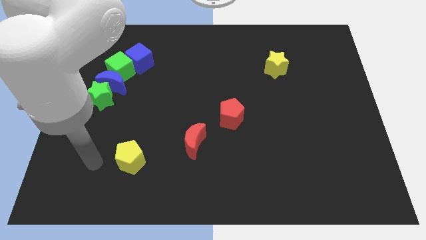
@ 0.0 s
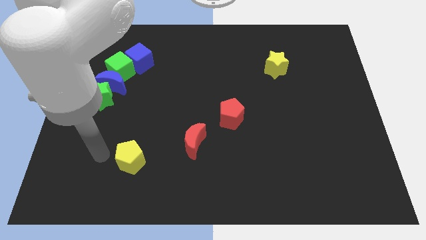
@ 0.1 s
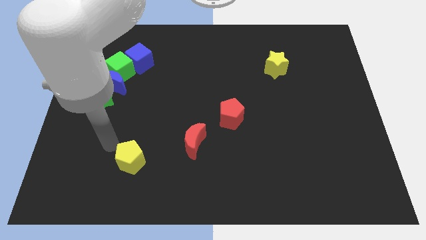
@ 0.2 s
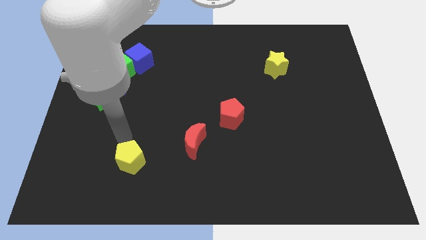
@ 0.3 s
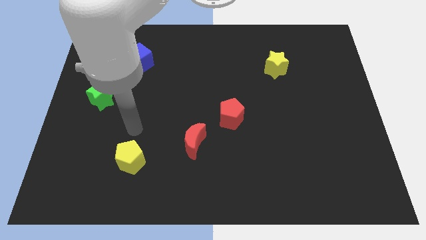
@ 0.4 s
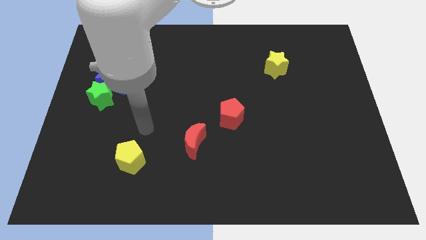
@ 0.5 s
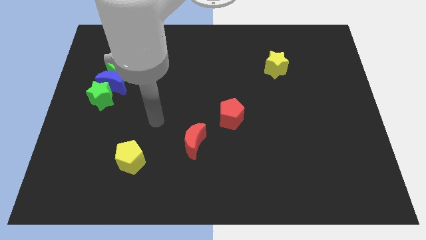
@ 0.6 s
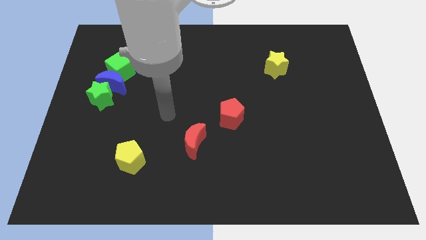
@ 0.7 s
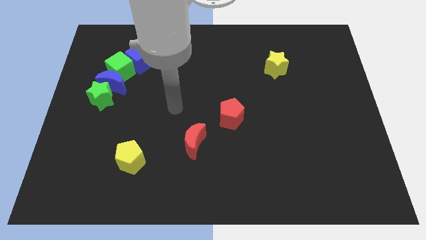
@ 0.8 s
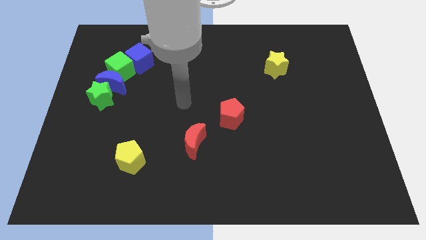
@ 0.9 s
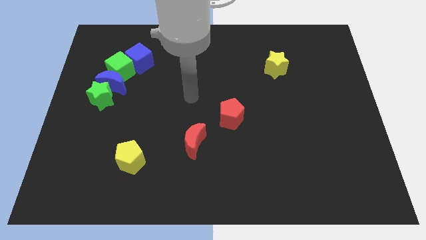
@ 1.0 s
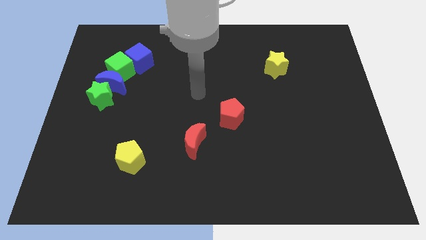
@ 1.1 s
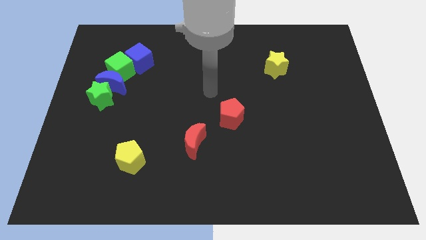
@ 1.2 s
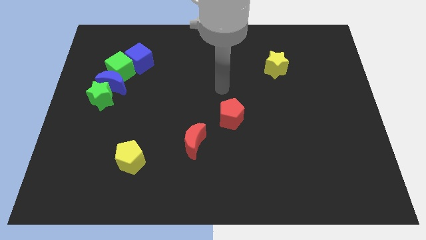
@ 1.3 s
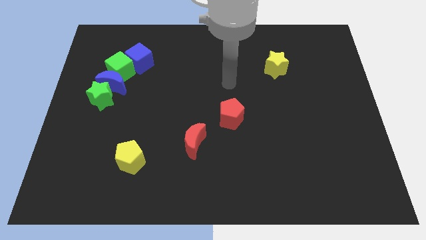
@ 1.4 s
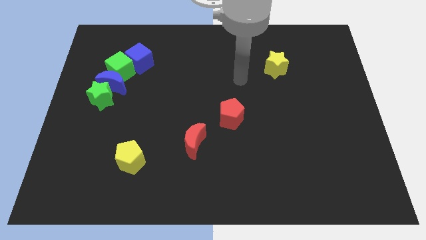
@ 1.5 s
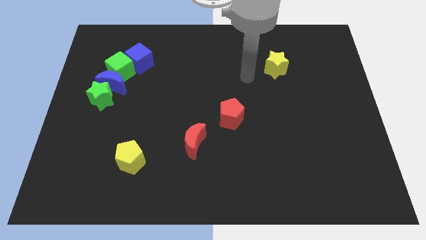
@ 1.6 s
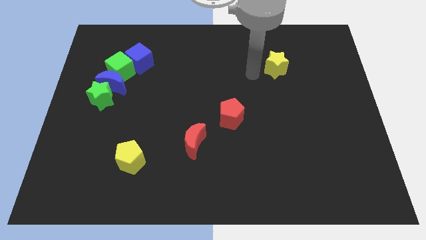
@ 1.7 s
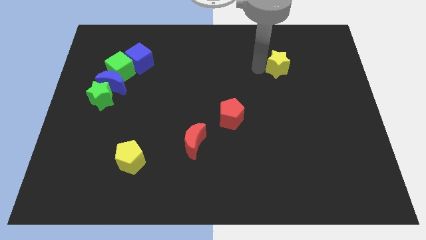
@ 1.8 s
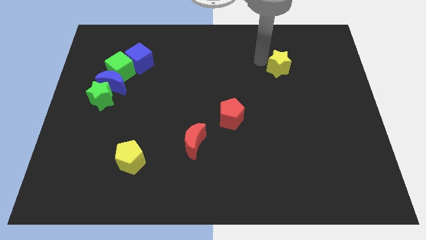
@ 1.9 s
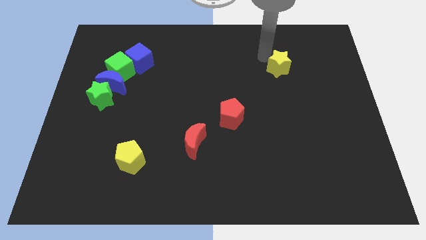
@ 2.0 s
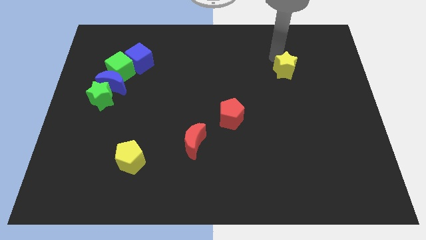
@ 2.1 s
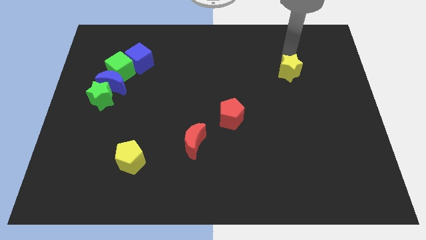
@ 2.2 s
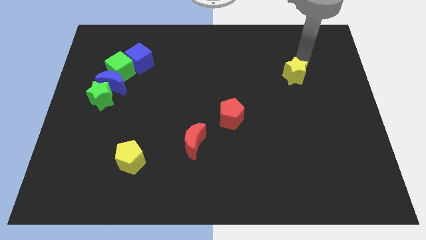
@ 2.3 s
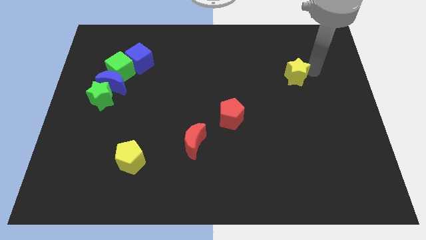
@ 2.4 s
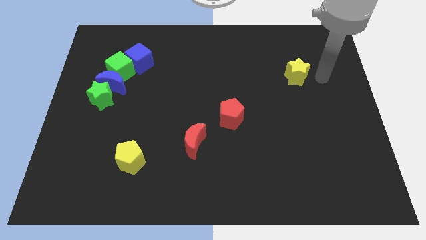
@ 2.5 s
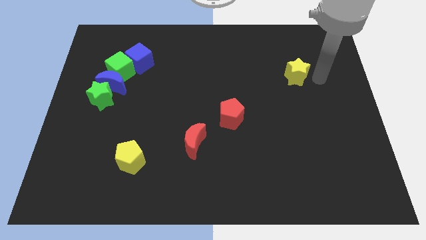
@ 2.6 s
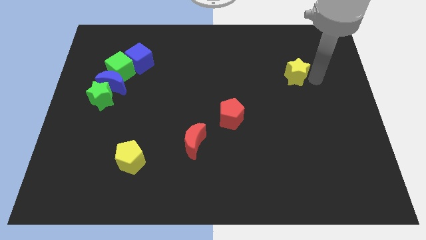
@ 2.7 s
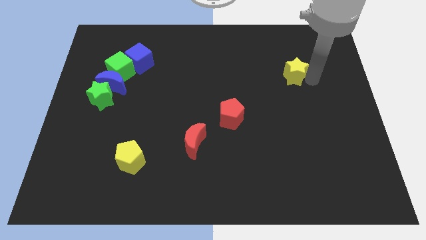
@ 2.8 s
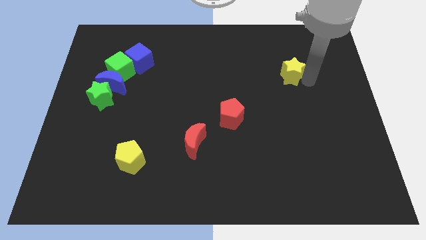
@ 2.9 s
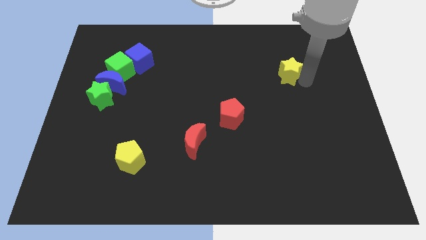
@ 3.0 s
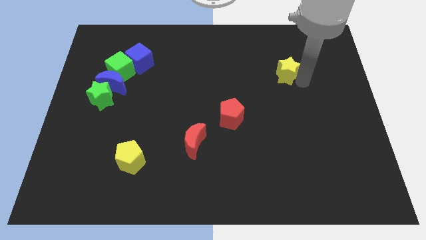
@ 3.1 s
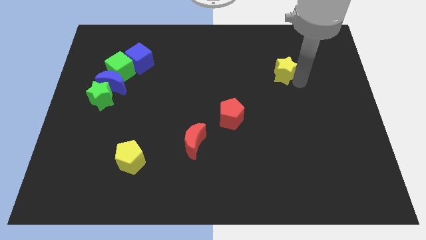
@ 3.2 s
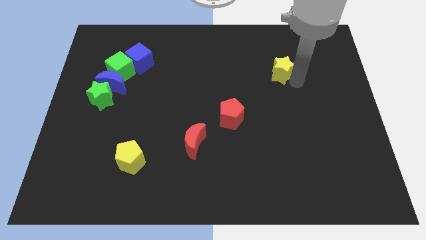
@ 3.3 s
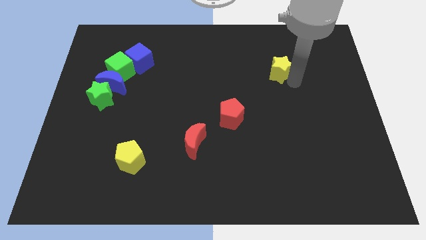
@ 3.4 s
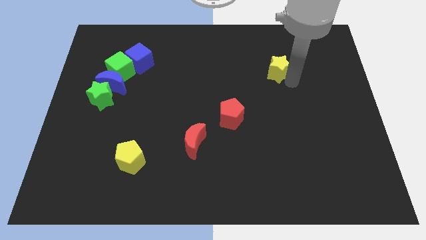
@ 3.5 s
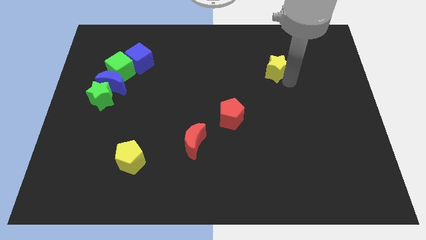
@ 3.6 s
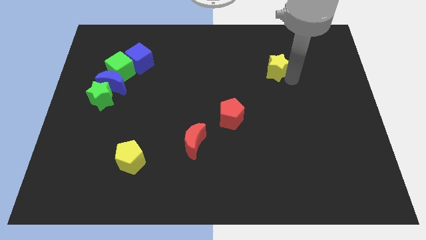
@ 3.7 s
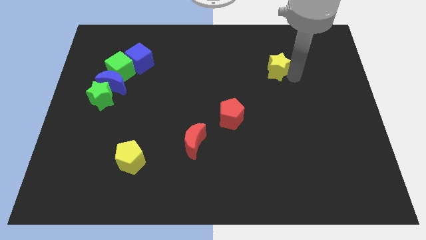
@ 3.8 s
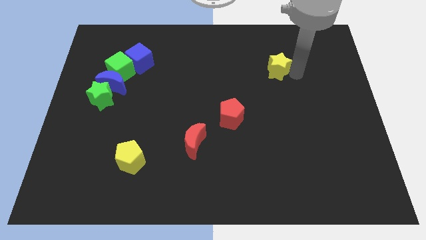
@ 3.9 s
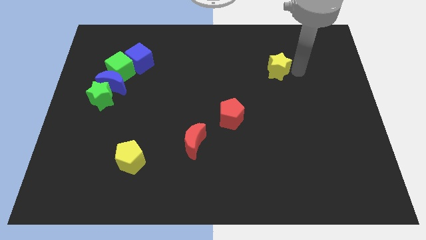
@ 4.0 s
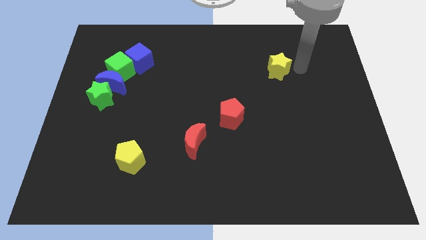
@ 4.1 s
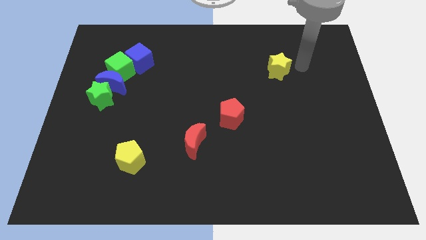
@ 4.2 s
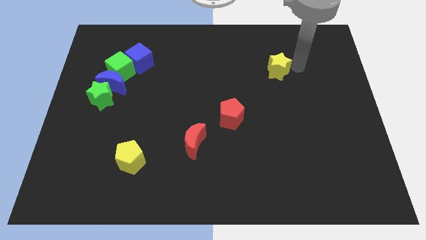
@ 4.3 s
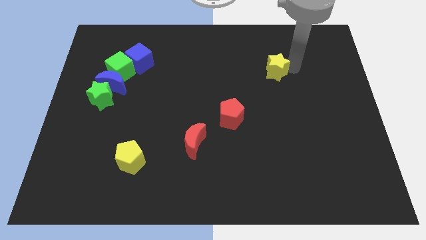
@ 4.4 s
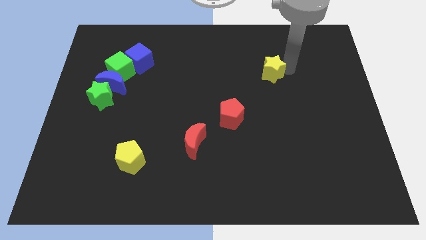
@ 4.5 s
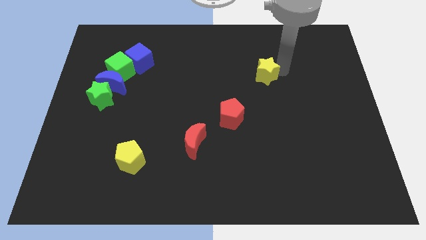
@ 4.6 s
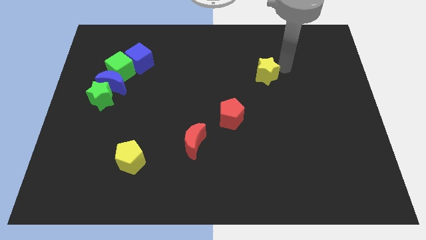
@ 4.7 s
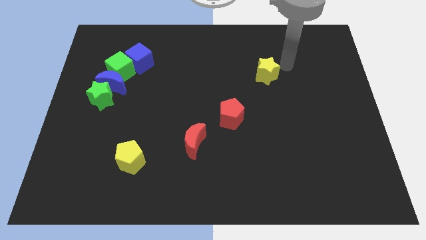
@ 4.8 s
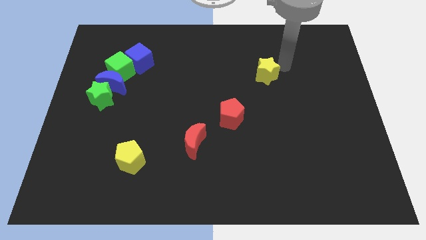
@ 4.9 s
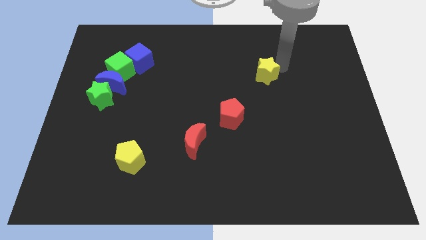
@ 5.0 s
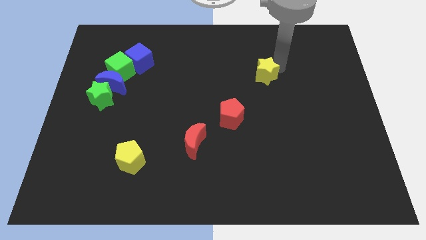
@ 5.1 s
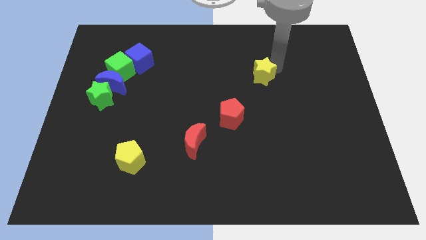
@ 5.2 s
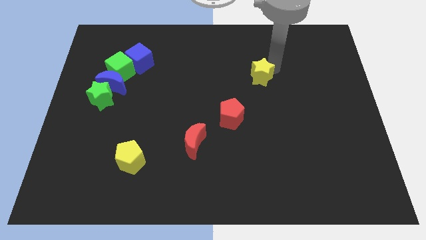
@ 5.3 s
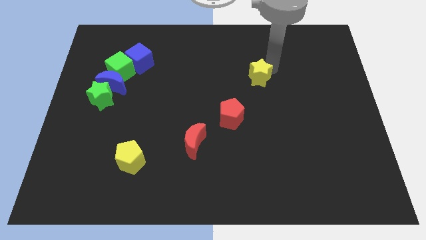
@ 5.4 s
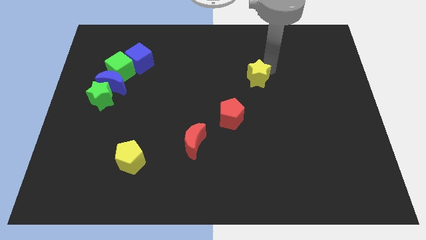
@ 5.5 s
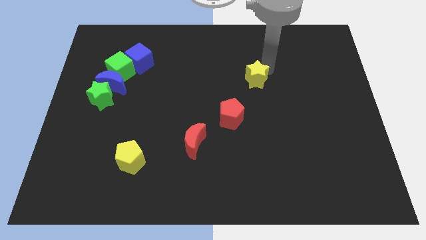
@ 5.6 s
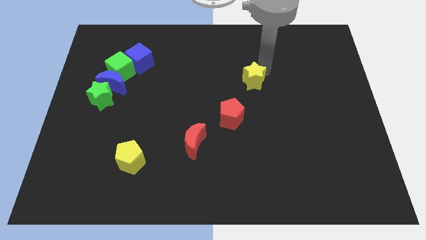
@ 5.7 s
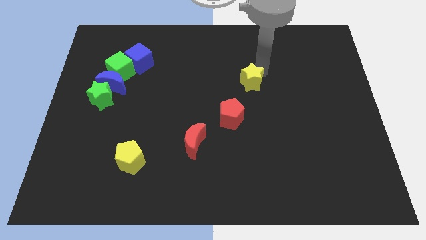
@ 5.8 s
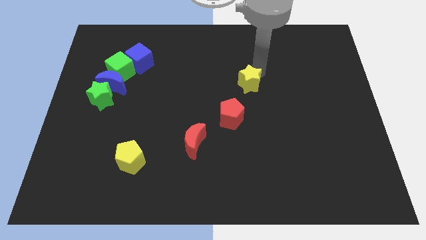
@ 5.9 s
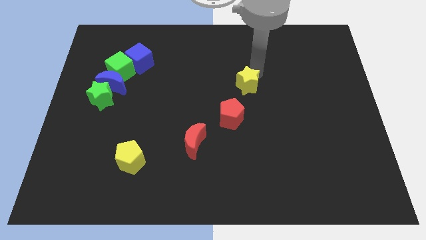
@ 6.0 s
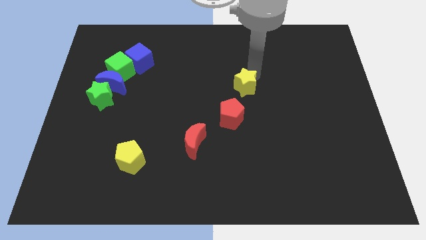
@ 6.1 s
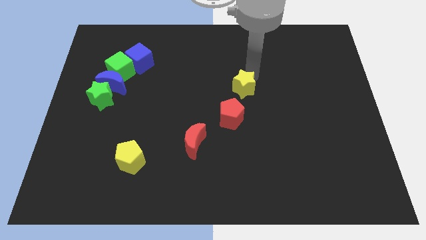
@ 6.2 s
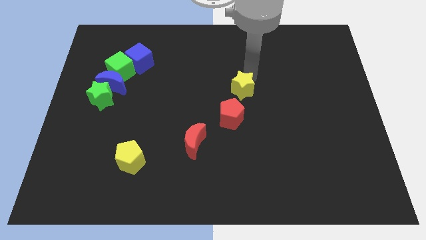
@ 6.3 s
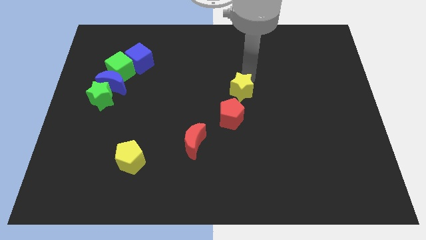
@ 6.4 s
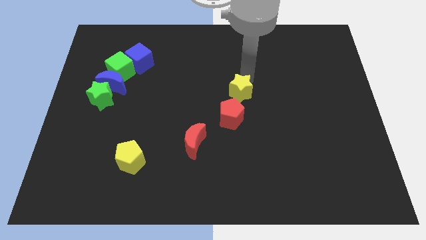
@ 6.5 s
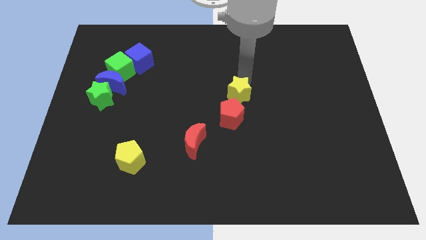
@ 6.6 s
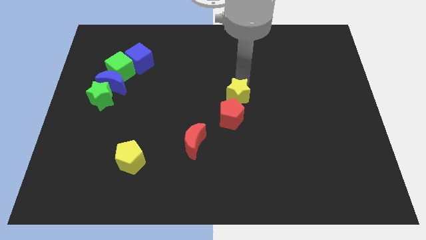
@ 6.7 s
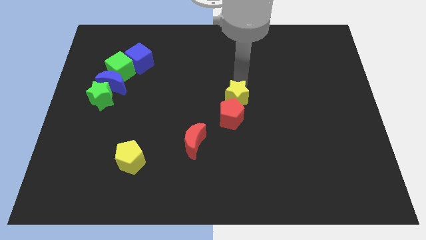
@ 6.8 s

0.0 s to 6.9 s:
move the yellow star towards the red pentagon
